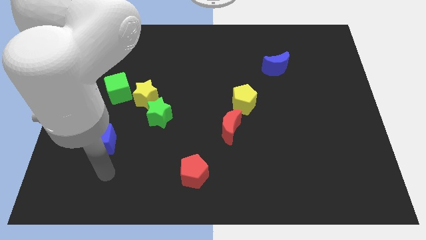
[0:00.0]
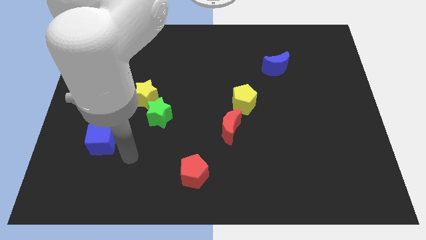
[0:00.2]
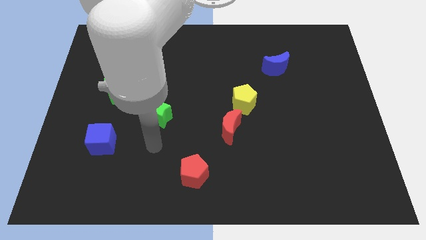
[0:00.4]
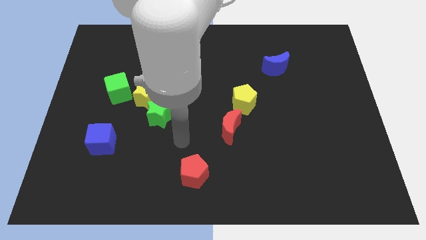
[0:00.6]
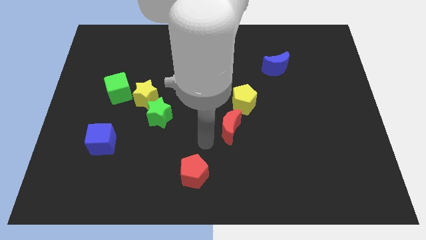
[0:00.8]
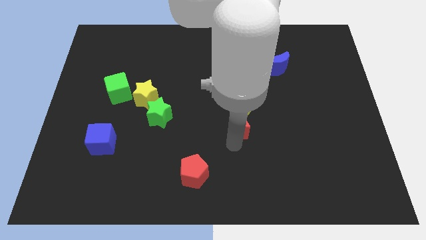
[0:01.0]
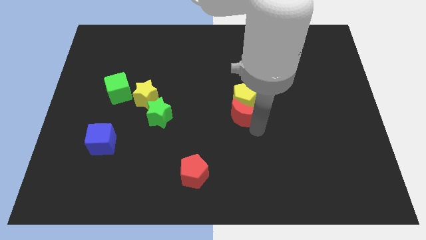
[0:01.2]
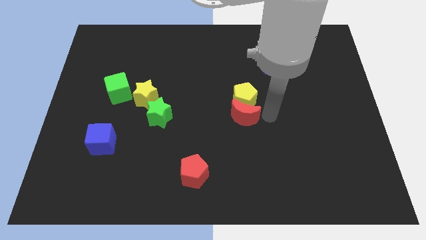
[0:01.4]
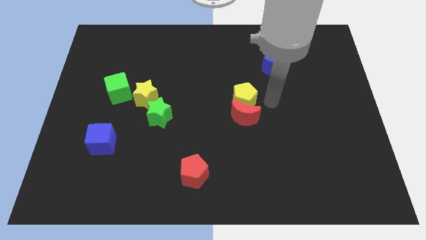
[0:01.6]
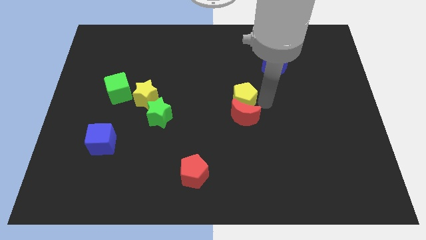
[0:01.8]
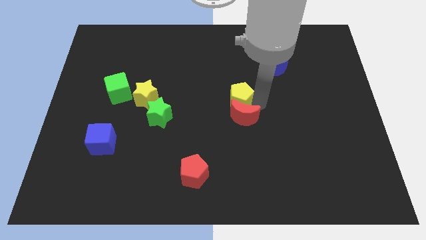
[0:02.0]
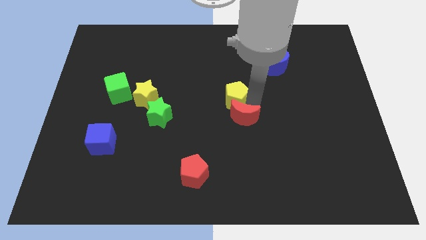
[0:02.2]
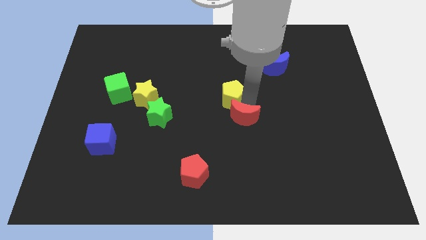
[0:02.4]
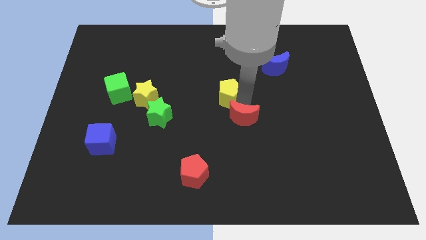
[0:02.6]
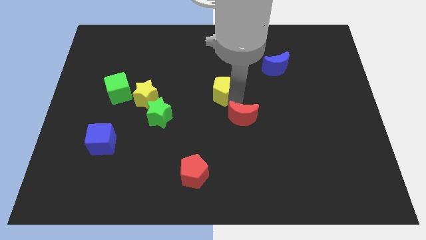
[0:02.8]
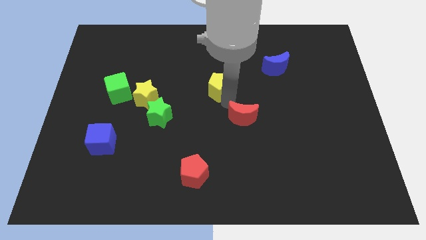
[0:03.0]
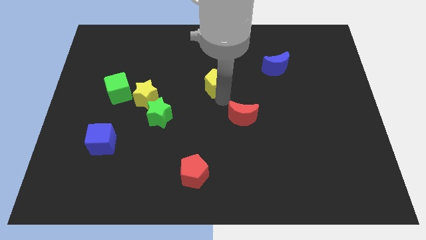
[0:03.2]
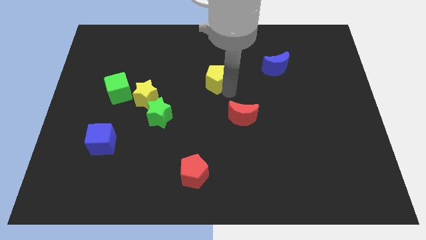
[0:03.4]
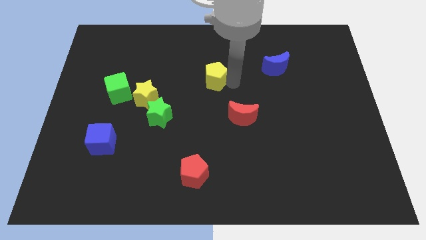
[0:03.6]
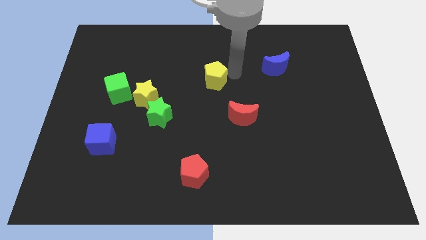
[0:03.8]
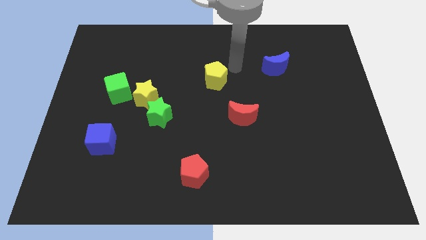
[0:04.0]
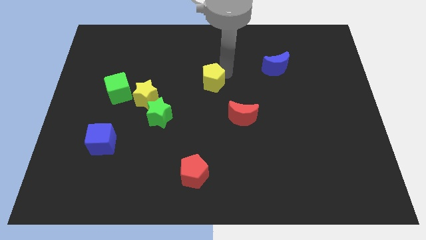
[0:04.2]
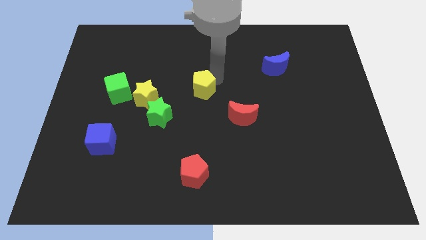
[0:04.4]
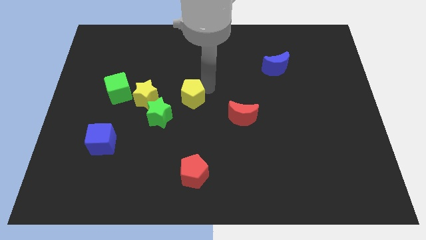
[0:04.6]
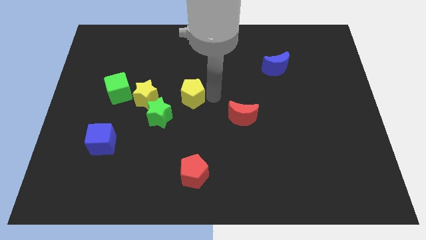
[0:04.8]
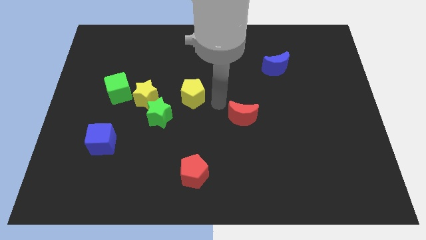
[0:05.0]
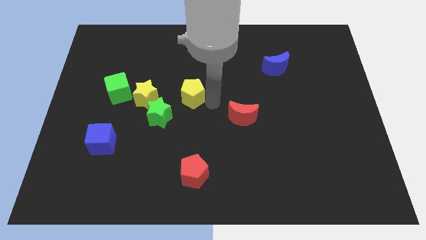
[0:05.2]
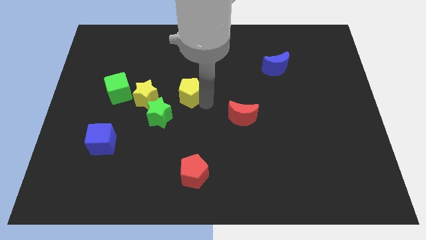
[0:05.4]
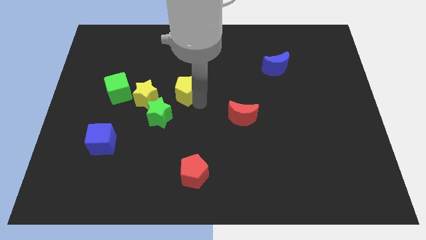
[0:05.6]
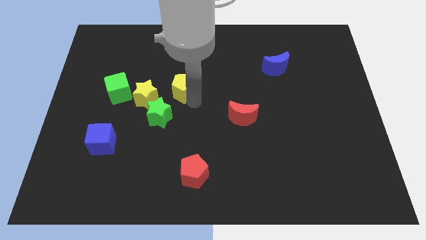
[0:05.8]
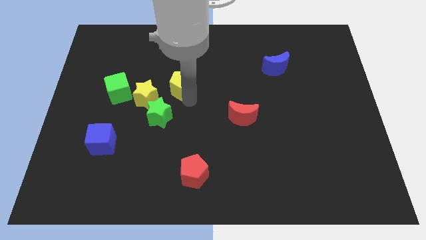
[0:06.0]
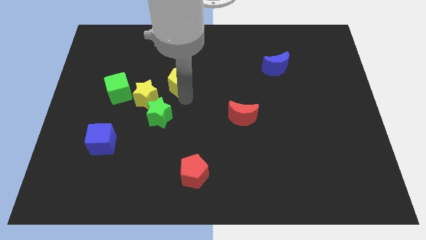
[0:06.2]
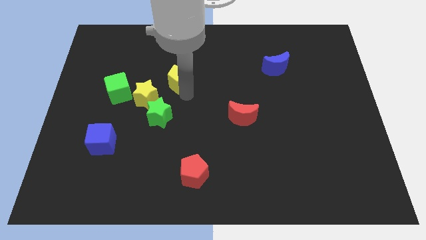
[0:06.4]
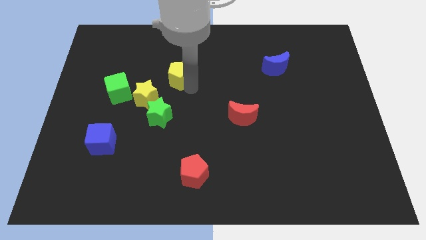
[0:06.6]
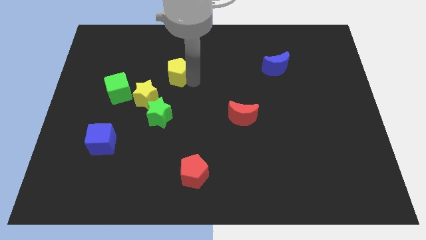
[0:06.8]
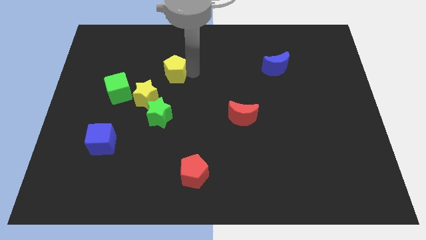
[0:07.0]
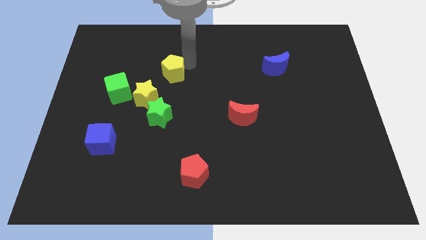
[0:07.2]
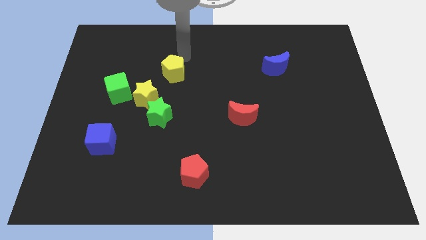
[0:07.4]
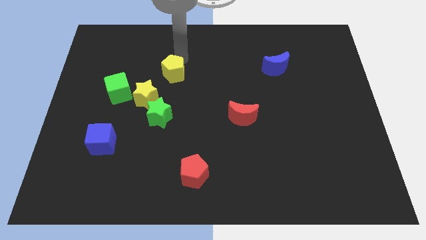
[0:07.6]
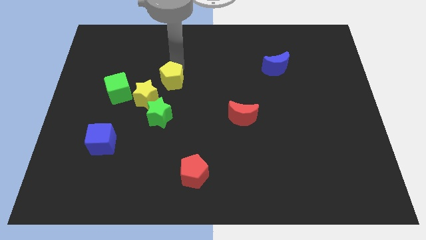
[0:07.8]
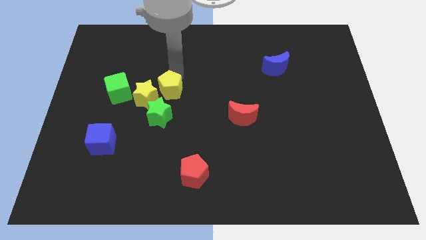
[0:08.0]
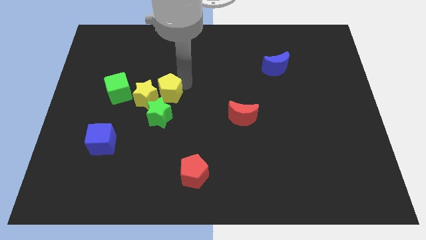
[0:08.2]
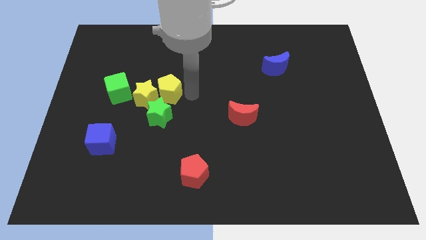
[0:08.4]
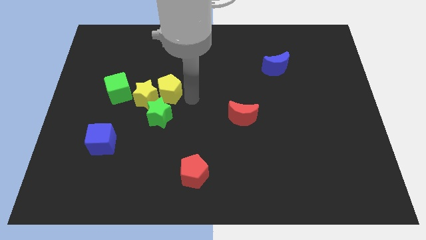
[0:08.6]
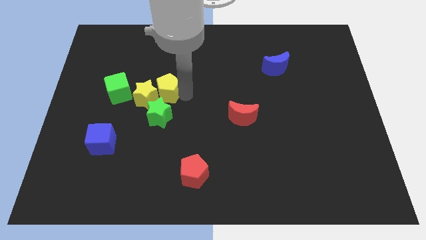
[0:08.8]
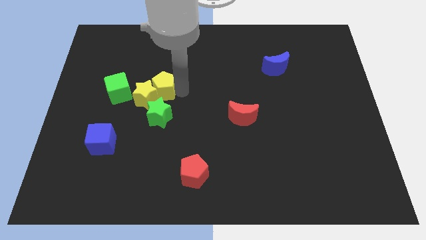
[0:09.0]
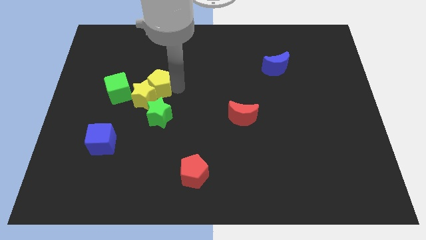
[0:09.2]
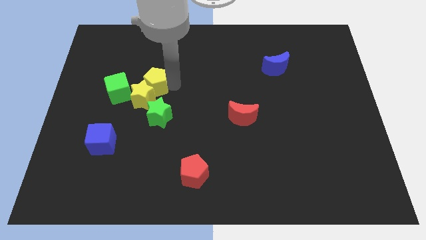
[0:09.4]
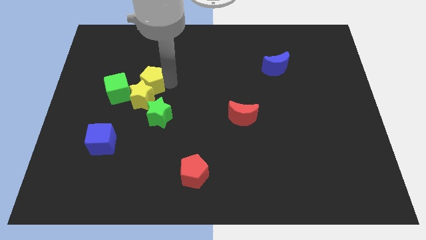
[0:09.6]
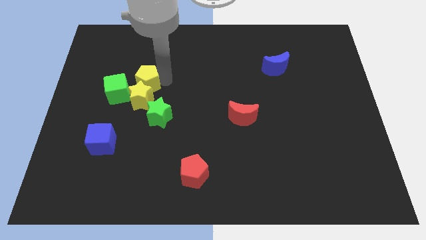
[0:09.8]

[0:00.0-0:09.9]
put the yellow pentagon to the top left side of the yellow star

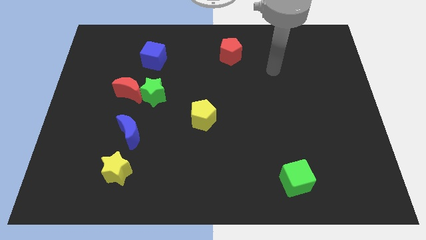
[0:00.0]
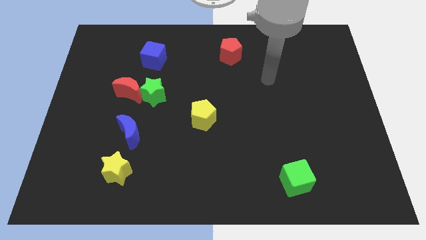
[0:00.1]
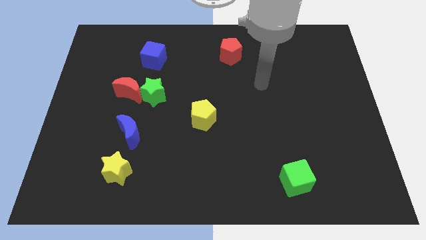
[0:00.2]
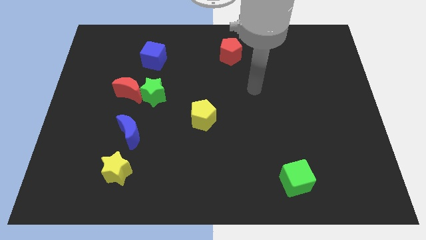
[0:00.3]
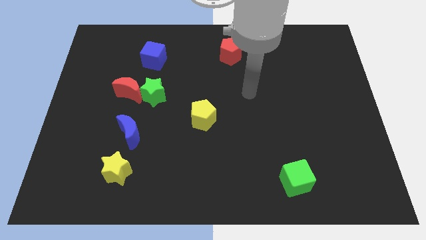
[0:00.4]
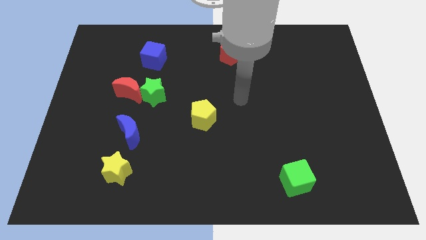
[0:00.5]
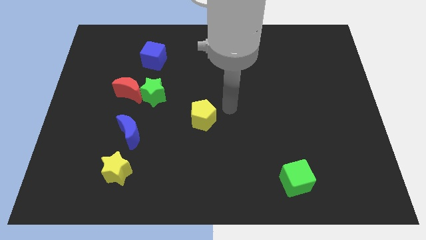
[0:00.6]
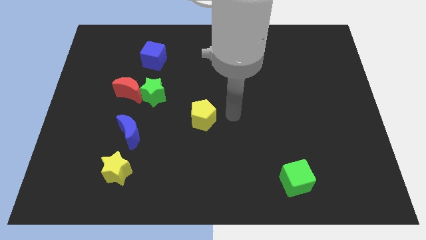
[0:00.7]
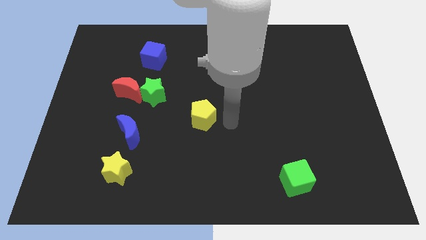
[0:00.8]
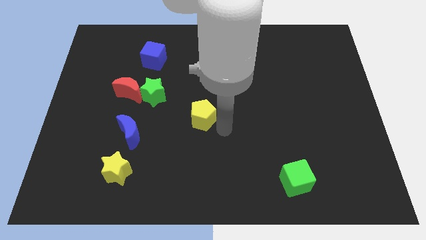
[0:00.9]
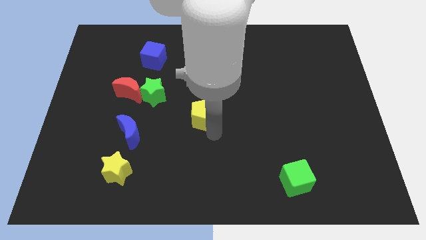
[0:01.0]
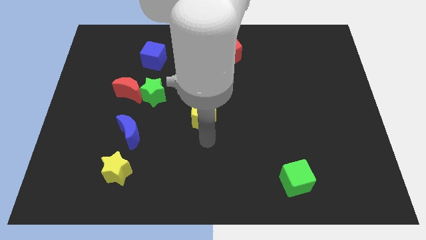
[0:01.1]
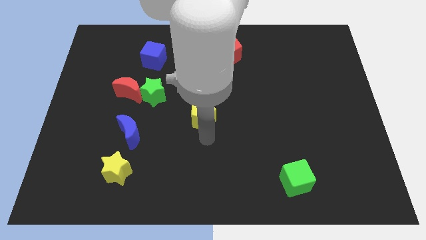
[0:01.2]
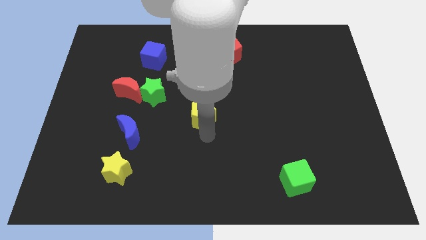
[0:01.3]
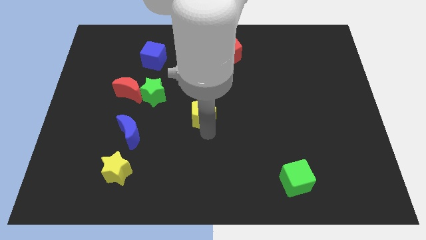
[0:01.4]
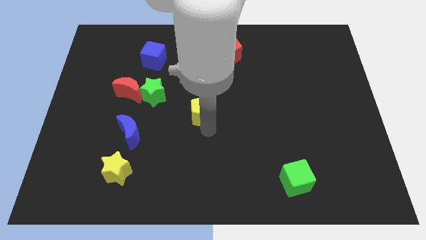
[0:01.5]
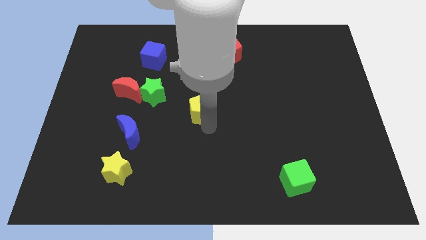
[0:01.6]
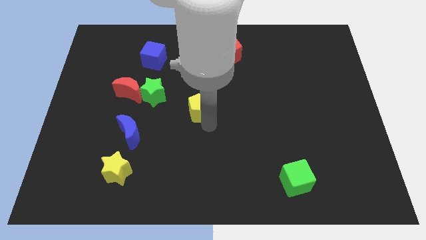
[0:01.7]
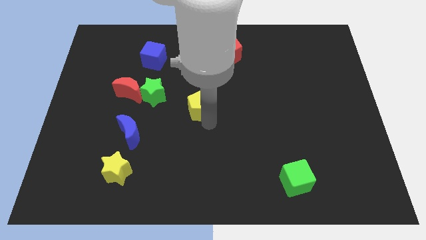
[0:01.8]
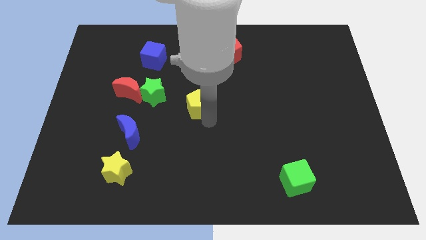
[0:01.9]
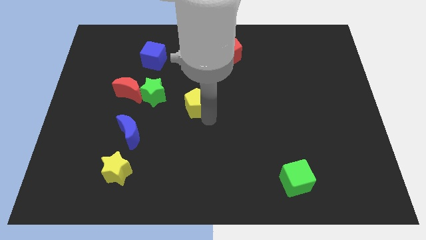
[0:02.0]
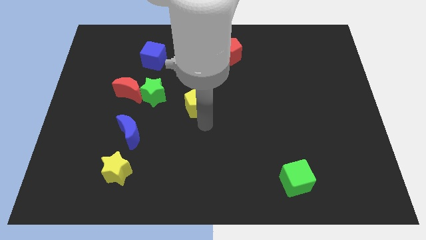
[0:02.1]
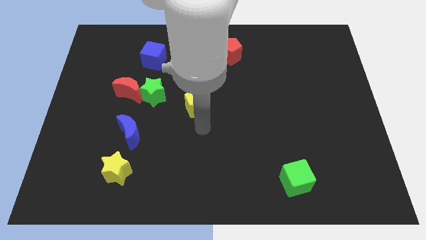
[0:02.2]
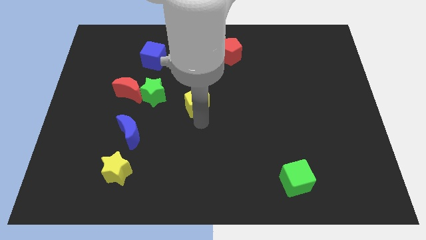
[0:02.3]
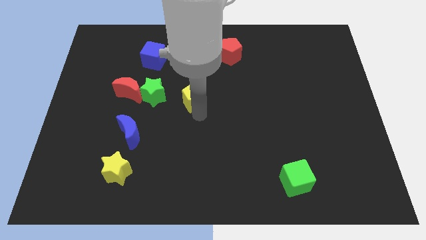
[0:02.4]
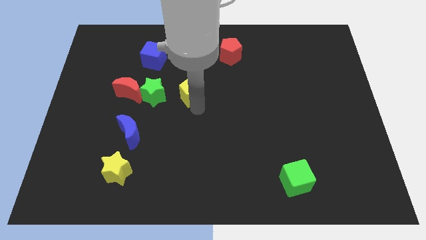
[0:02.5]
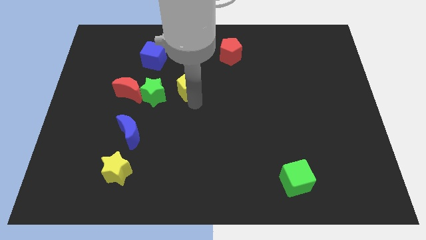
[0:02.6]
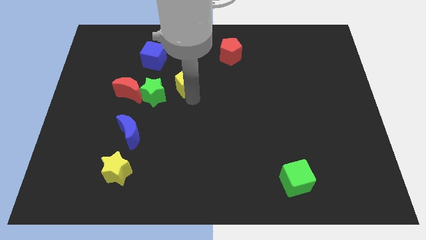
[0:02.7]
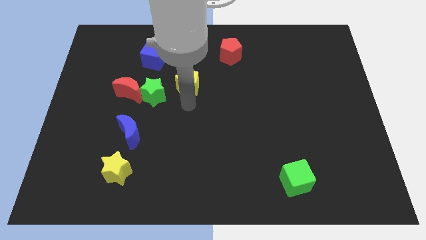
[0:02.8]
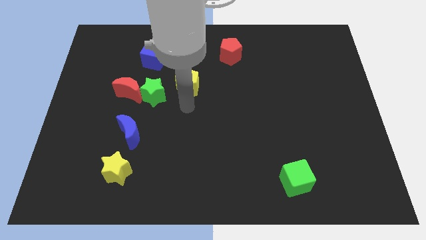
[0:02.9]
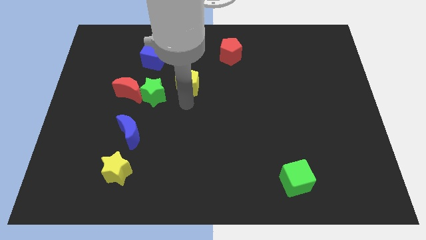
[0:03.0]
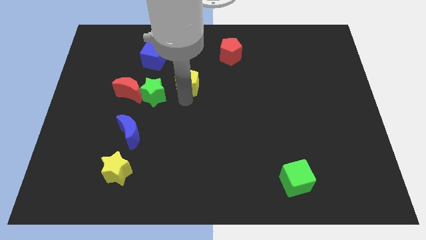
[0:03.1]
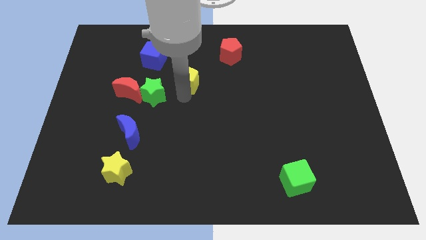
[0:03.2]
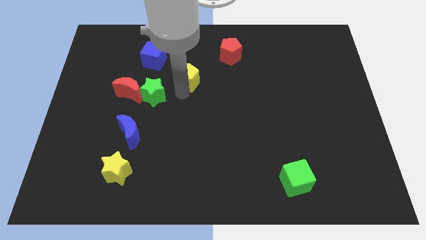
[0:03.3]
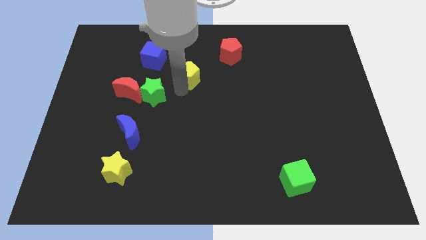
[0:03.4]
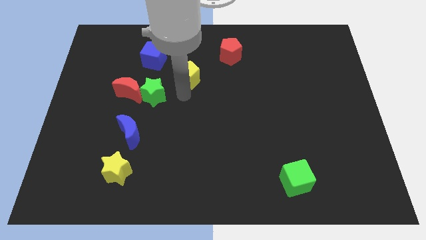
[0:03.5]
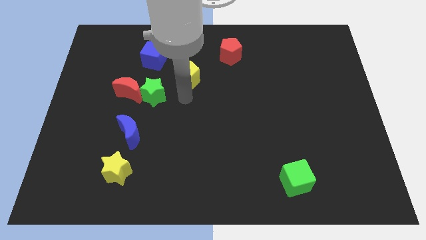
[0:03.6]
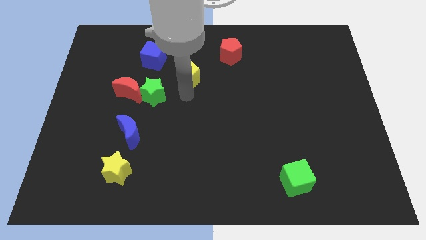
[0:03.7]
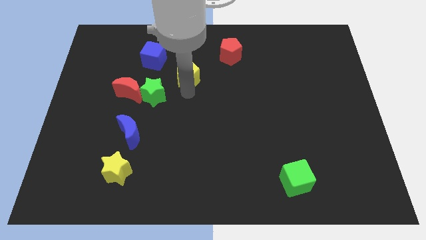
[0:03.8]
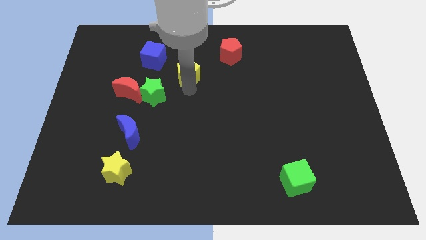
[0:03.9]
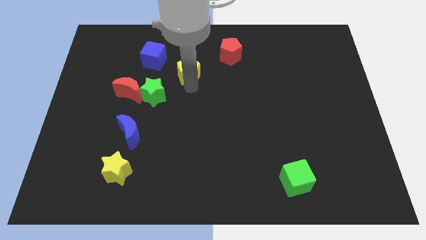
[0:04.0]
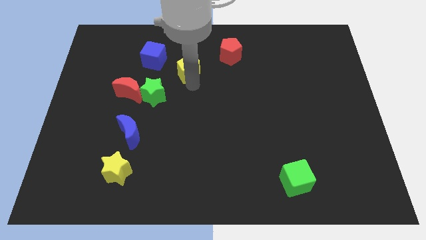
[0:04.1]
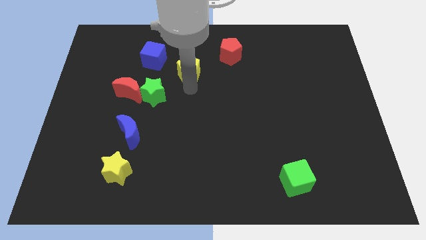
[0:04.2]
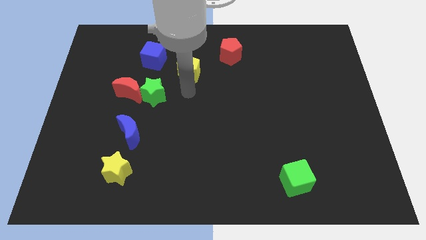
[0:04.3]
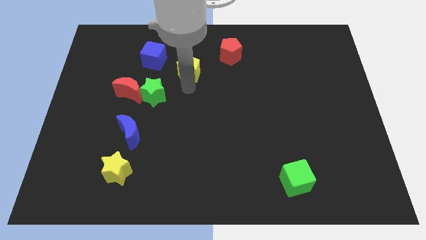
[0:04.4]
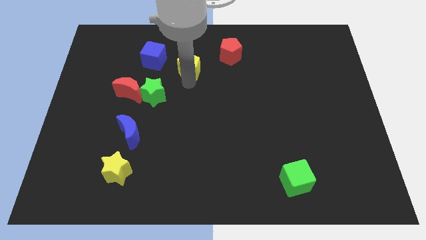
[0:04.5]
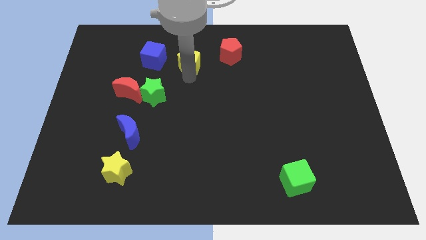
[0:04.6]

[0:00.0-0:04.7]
move the yellow pentagon just left of the red pentagon
